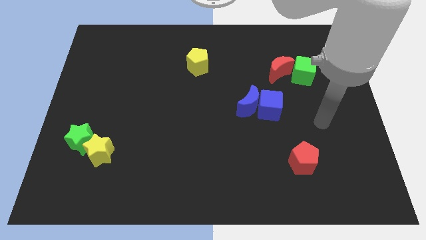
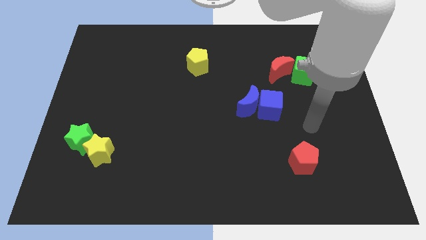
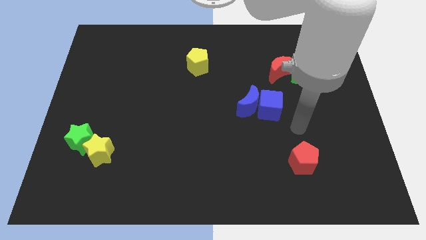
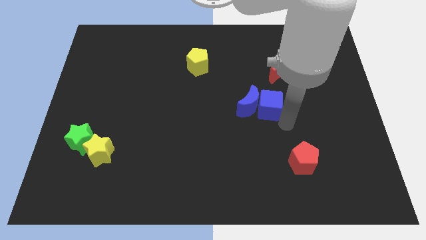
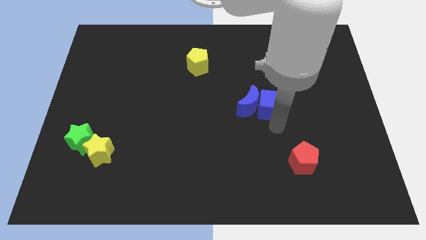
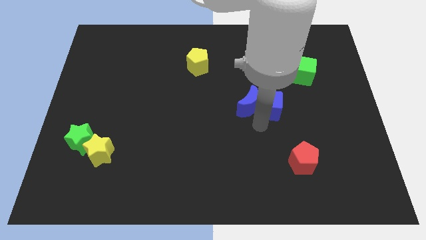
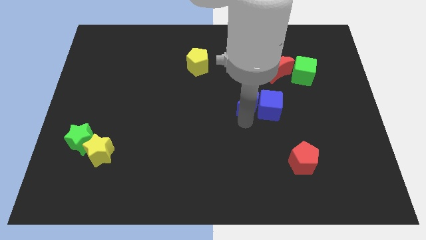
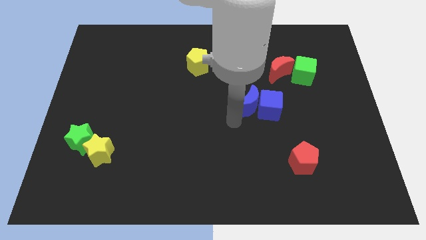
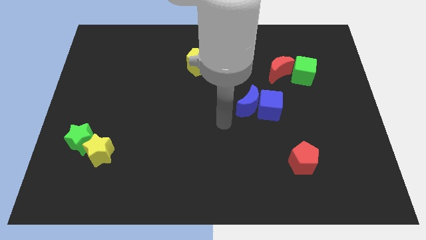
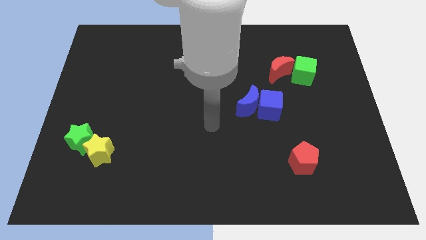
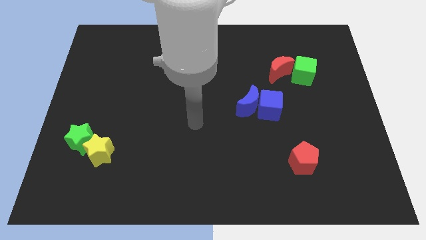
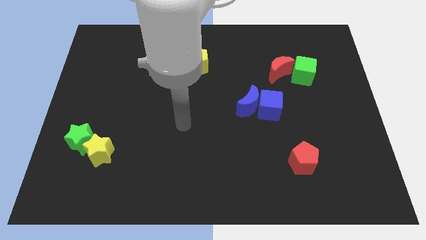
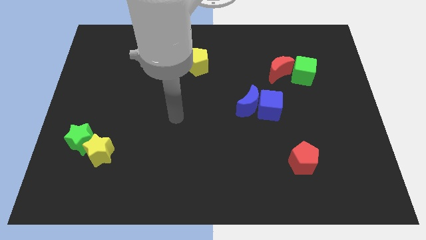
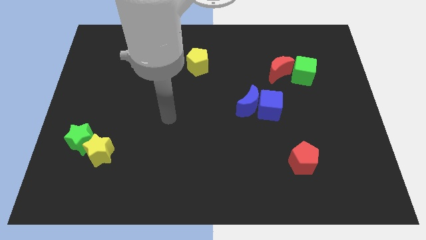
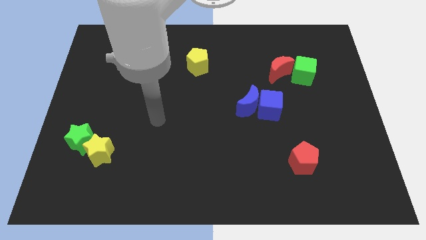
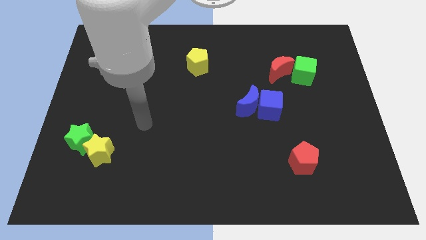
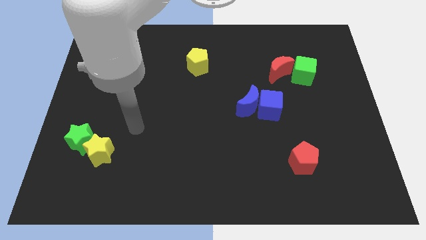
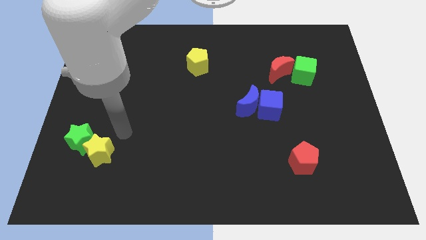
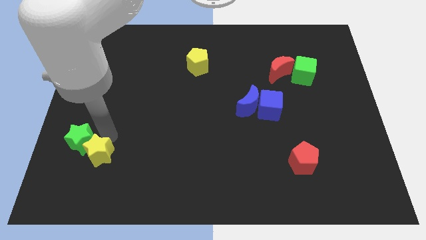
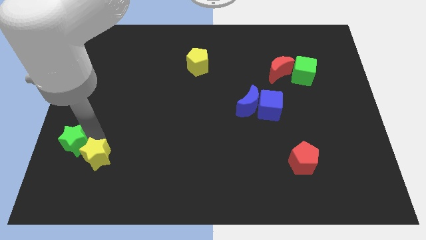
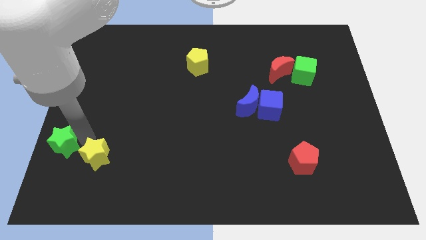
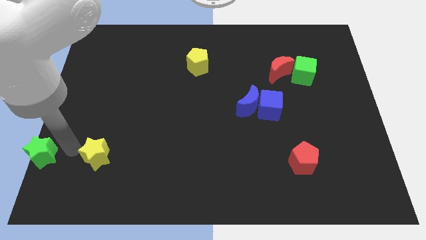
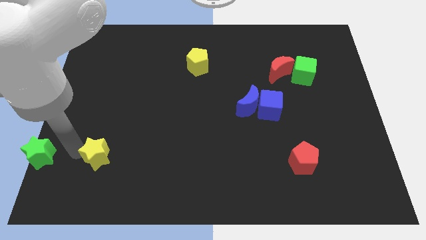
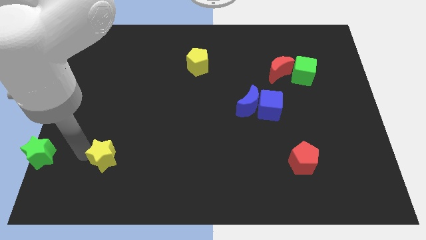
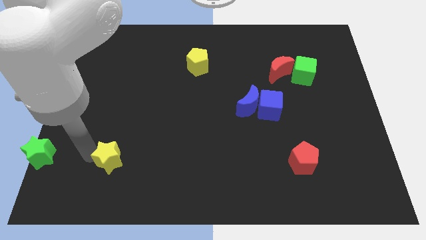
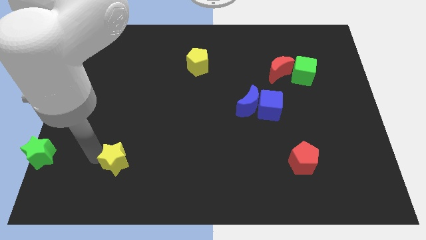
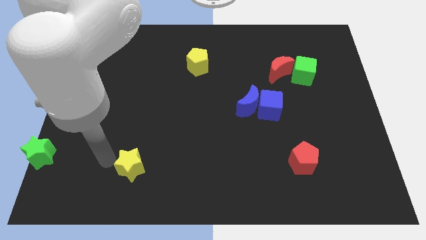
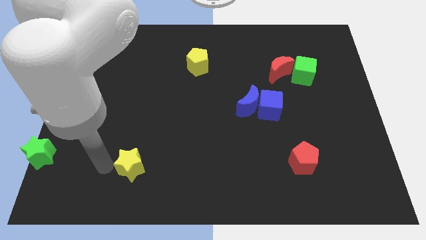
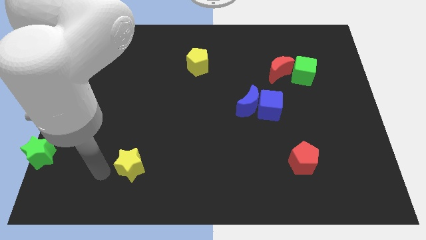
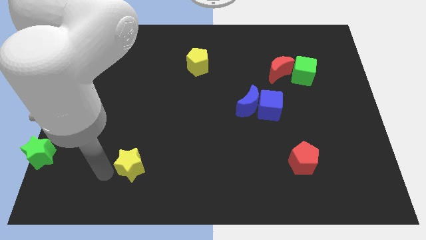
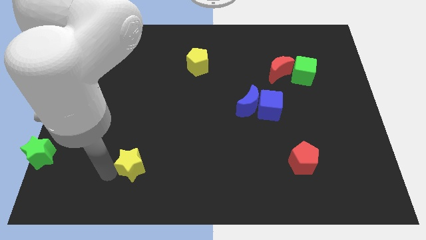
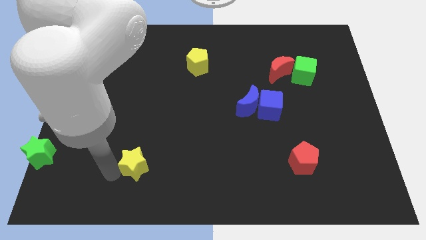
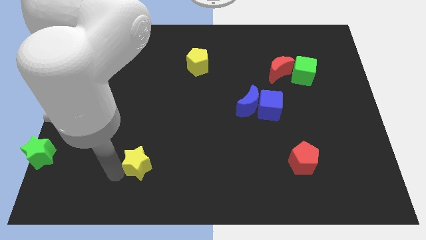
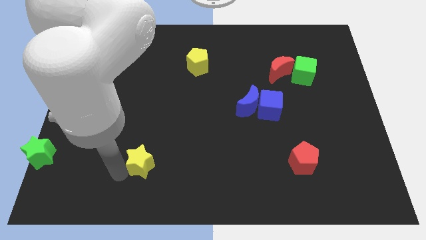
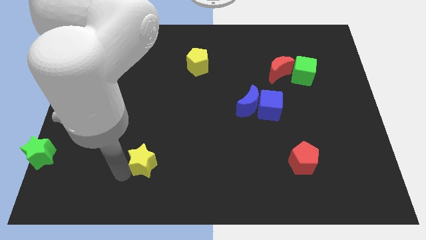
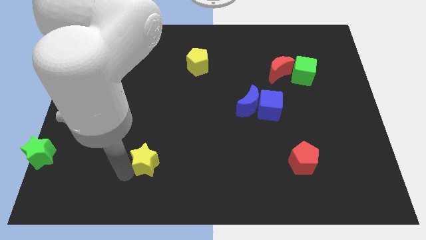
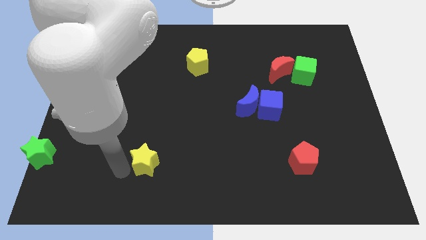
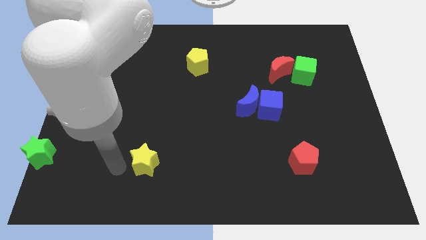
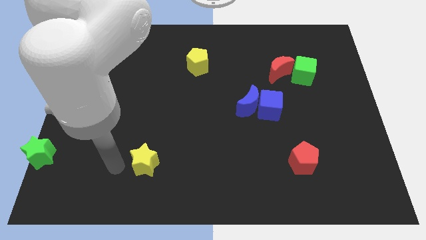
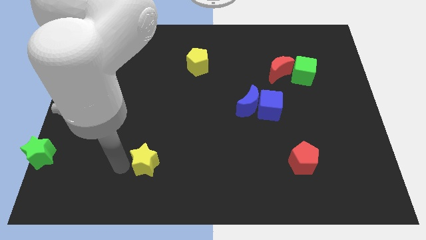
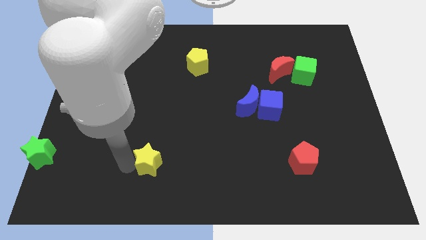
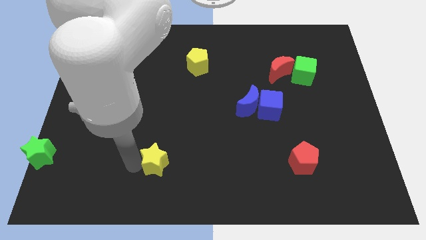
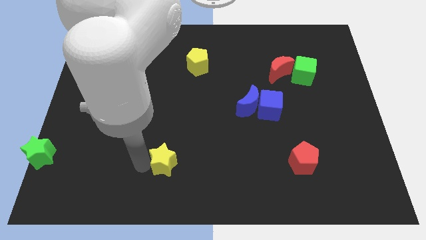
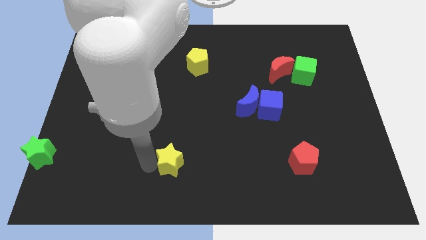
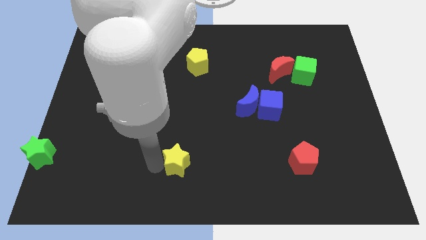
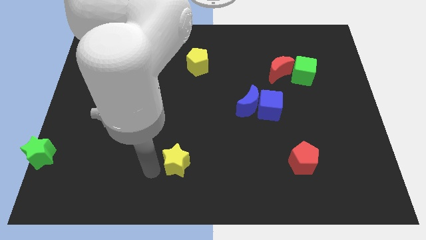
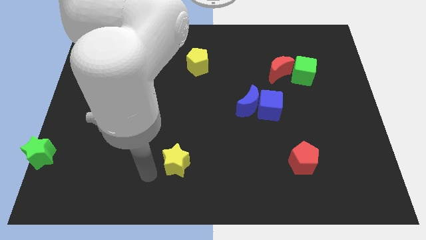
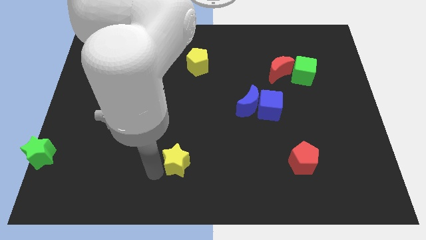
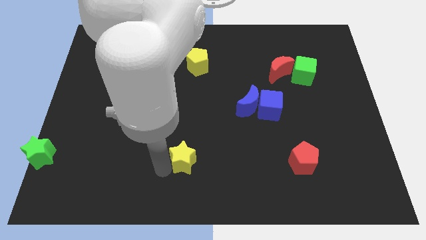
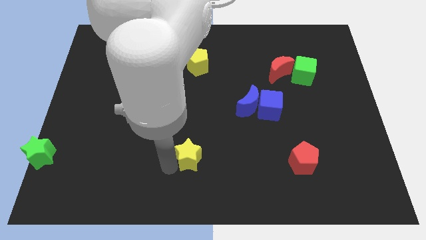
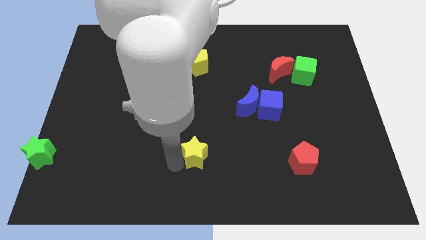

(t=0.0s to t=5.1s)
push the yellow star to the right

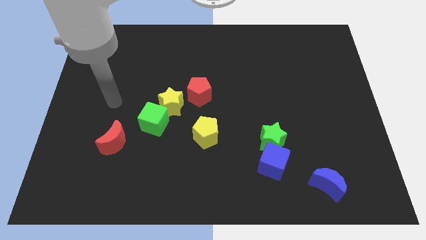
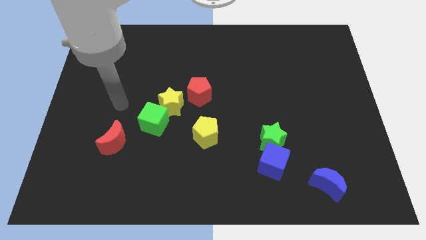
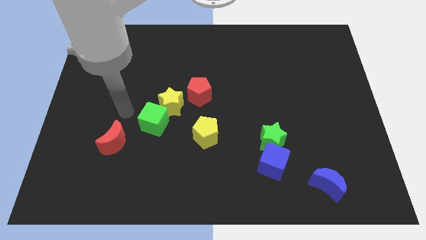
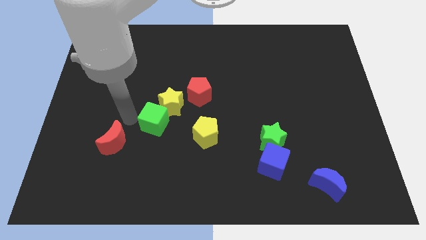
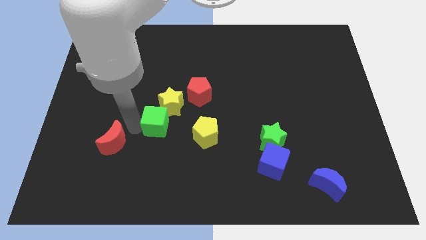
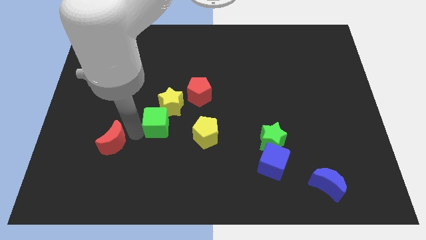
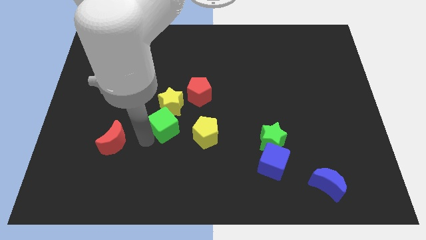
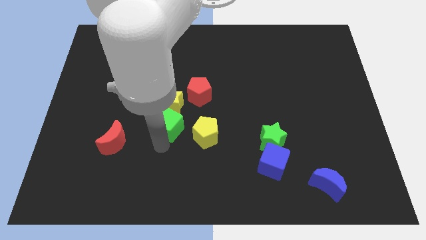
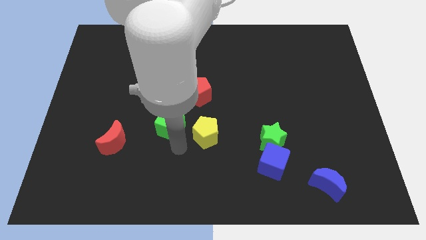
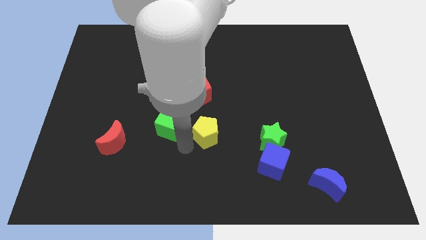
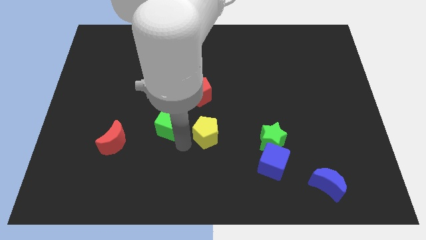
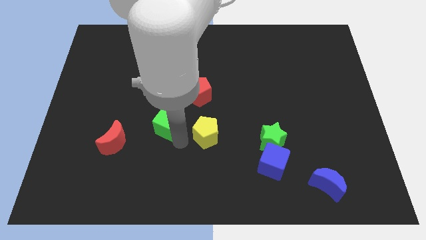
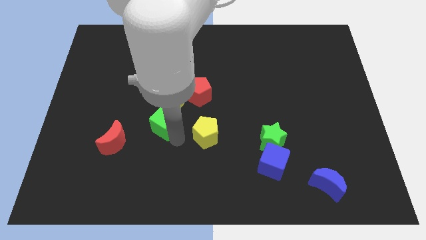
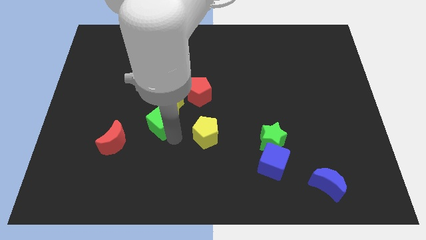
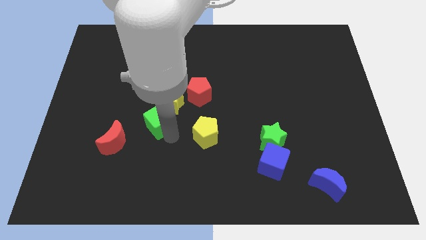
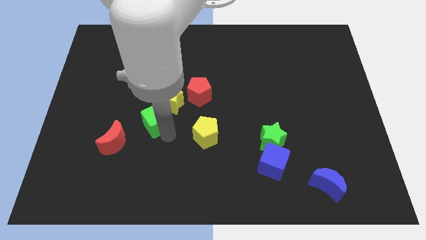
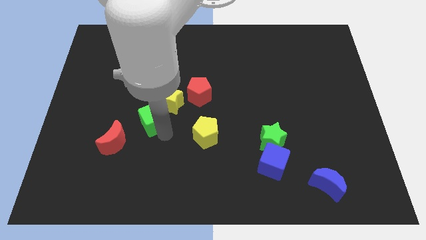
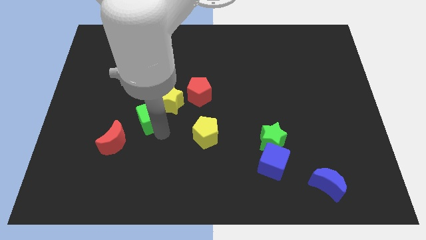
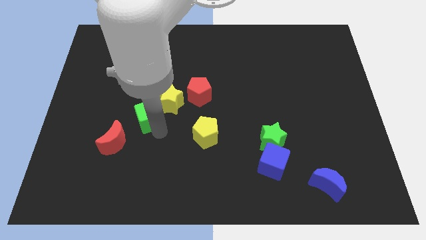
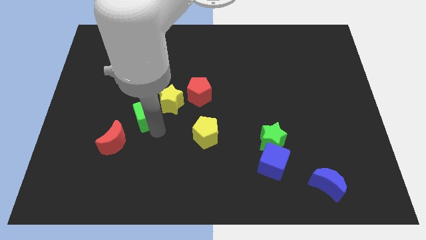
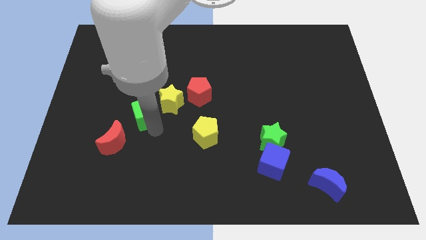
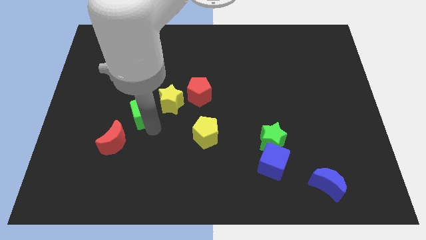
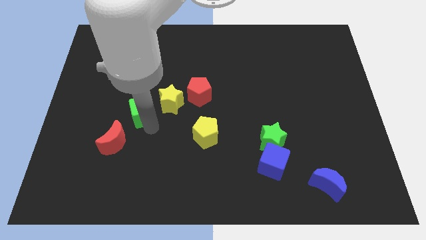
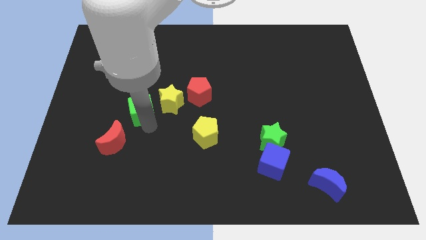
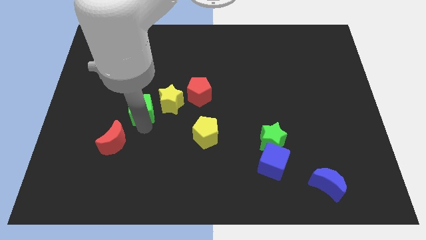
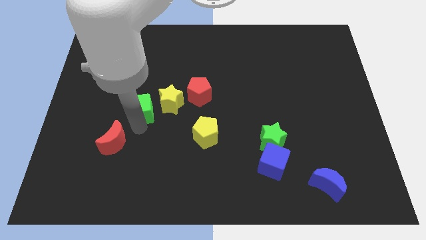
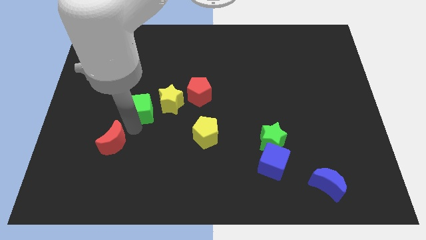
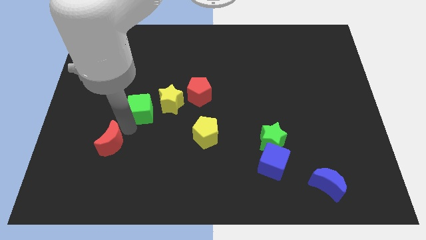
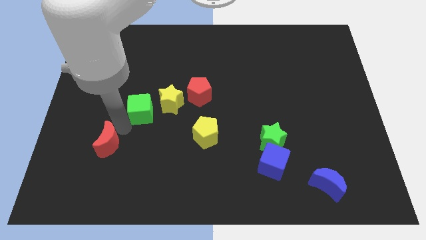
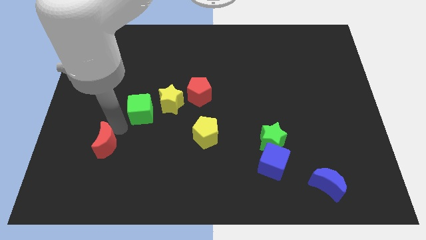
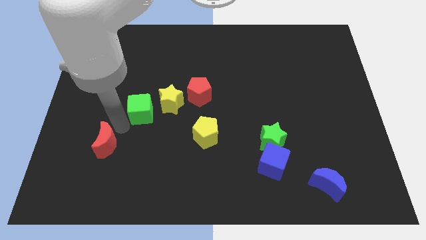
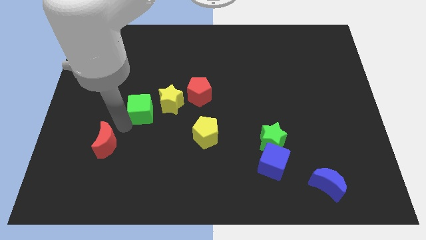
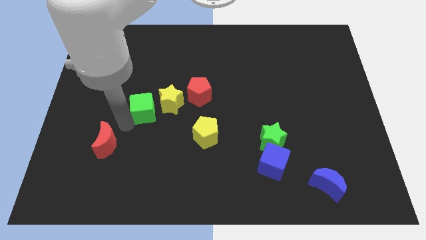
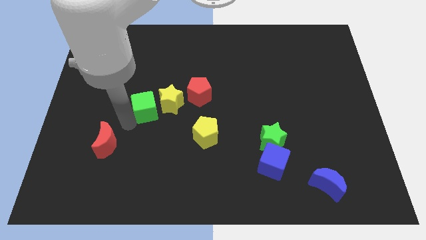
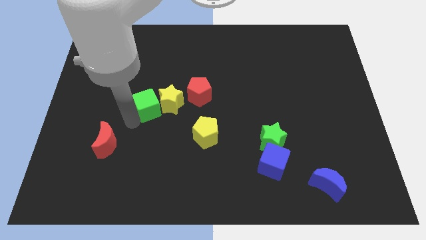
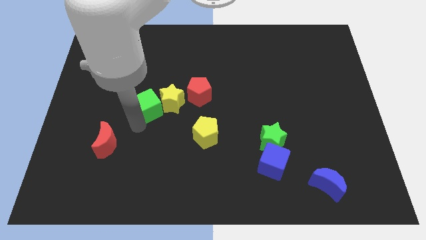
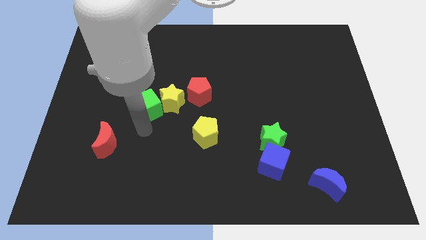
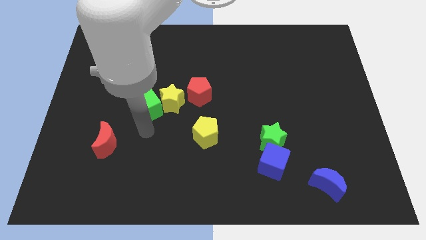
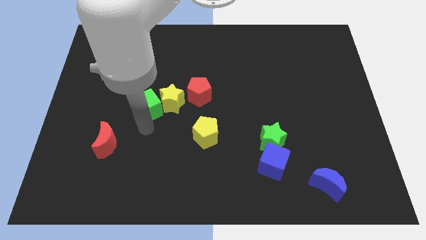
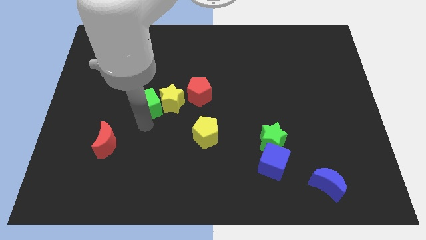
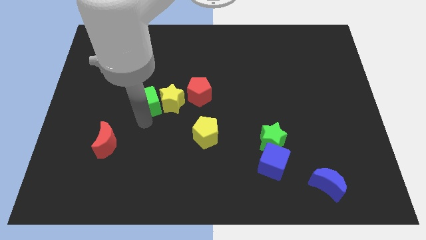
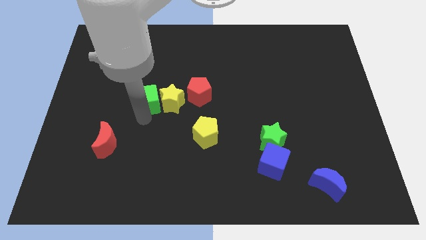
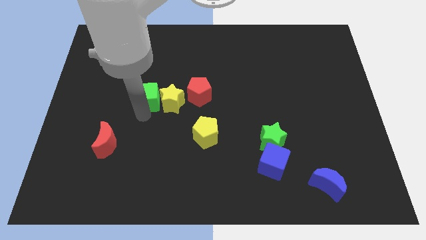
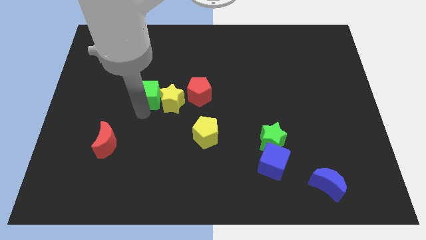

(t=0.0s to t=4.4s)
push the green cube slightly upwards
